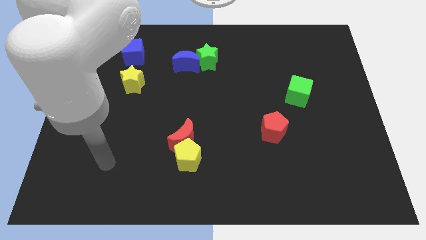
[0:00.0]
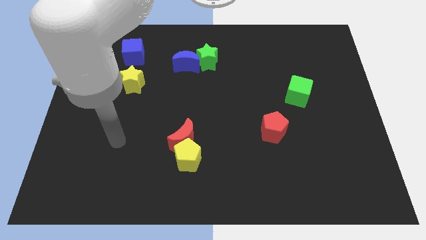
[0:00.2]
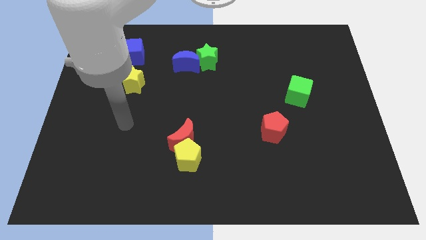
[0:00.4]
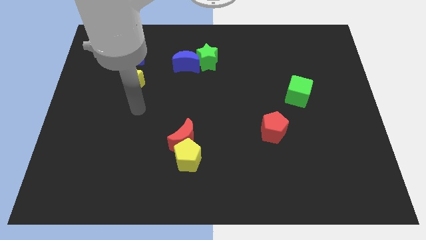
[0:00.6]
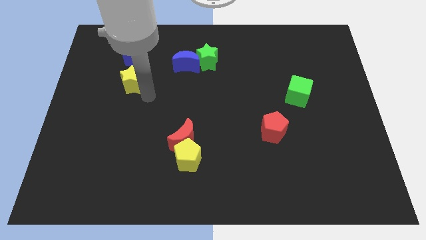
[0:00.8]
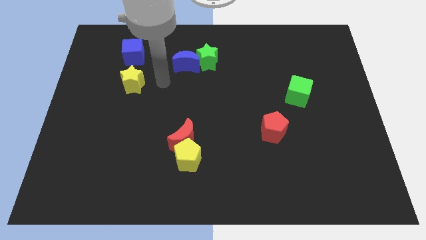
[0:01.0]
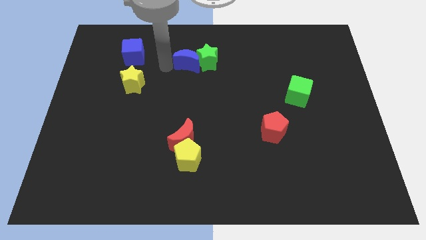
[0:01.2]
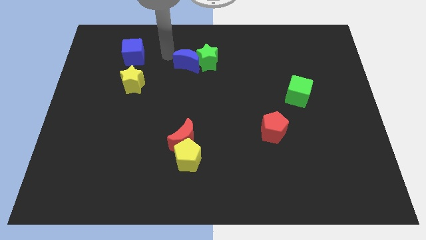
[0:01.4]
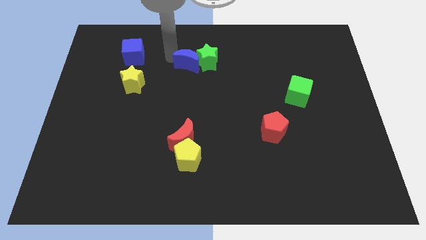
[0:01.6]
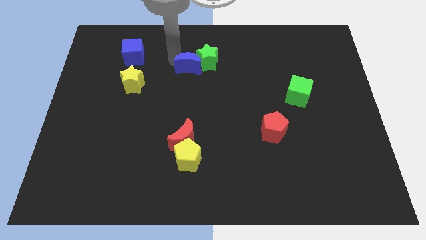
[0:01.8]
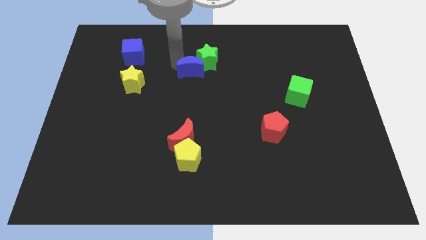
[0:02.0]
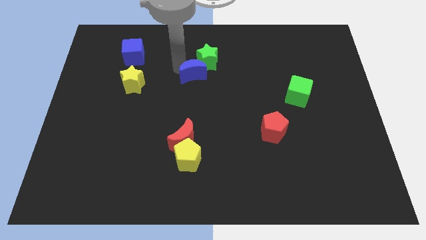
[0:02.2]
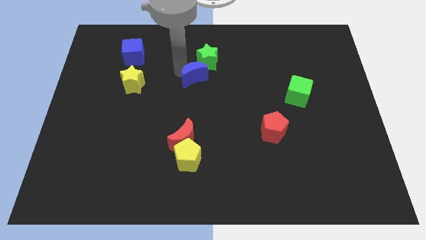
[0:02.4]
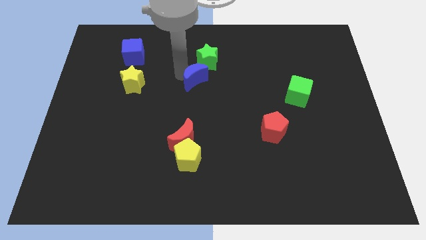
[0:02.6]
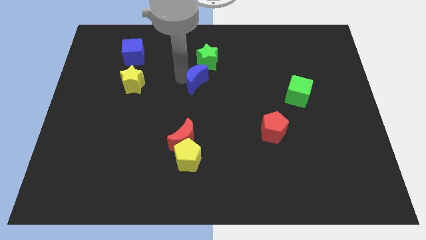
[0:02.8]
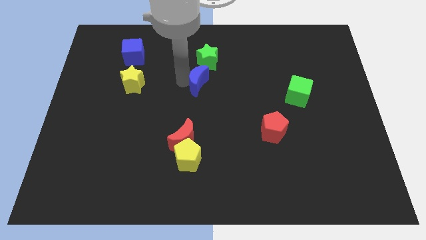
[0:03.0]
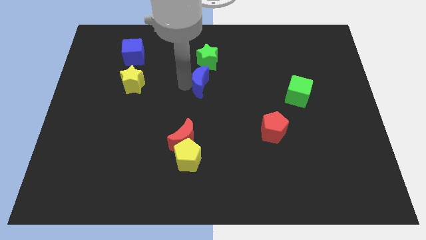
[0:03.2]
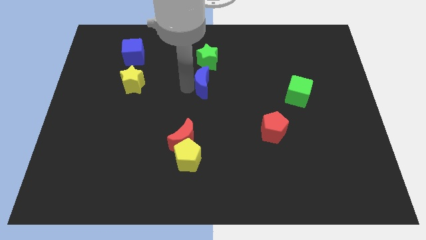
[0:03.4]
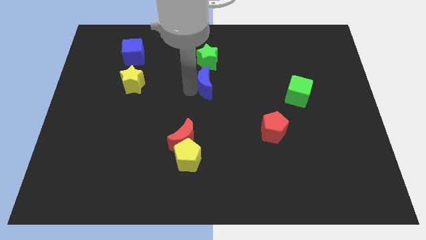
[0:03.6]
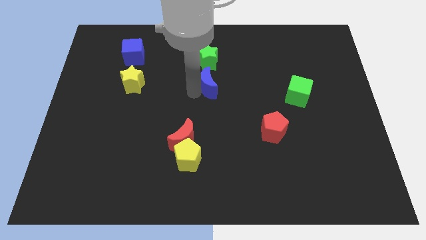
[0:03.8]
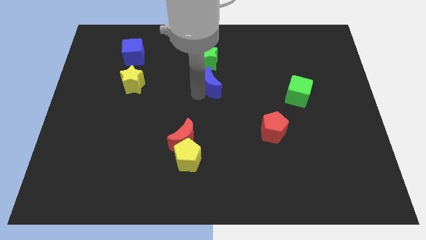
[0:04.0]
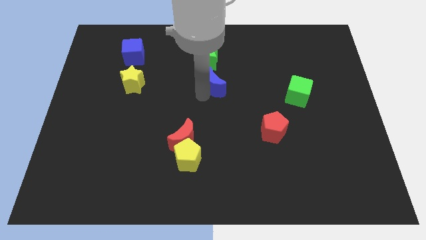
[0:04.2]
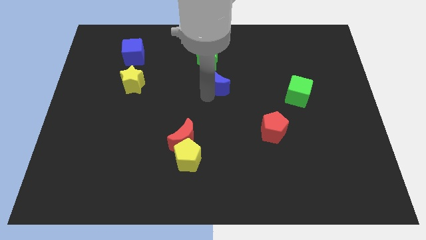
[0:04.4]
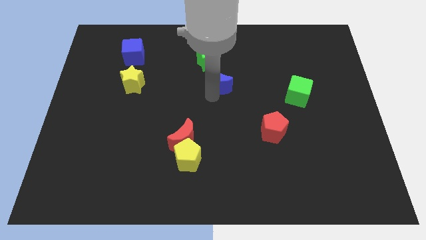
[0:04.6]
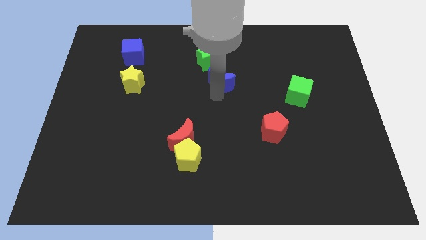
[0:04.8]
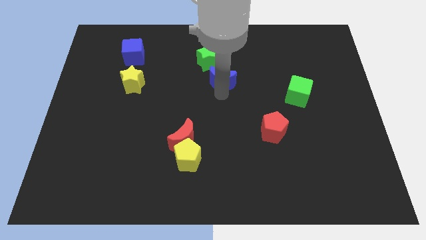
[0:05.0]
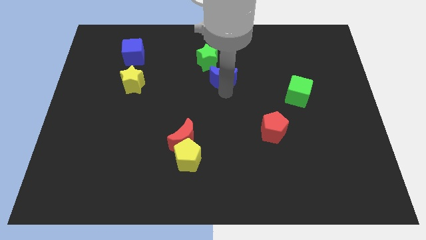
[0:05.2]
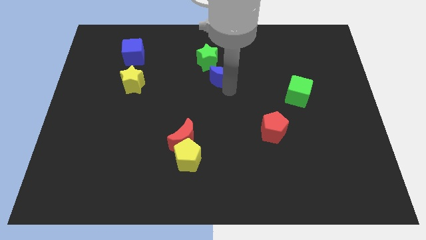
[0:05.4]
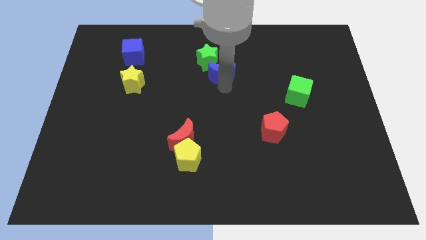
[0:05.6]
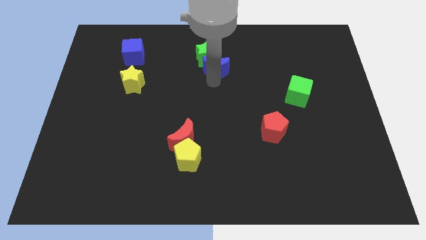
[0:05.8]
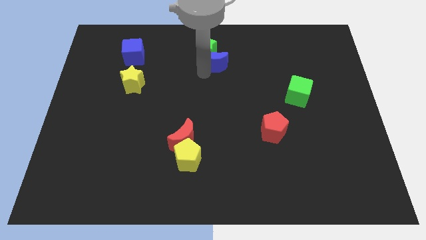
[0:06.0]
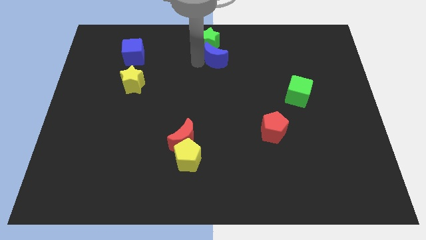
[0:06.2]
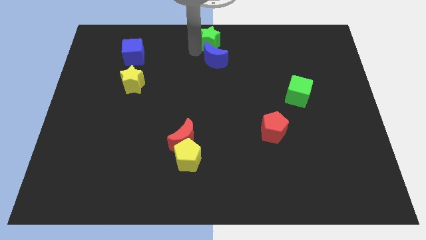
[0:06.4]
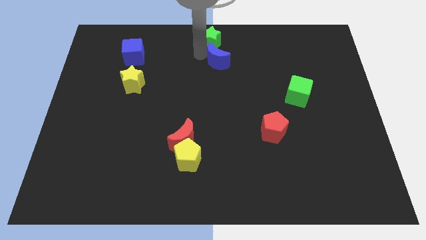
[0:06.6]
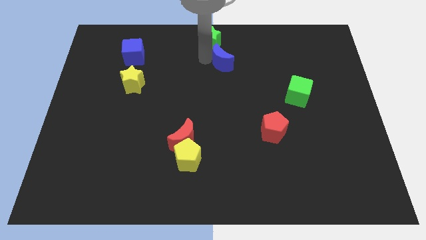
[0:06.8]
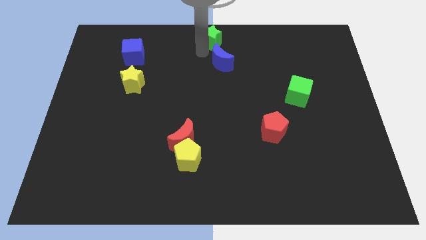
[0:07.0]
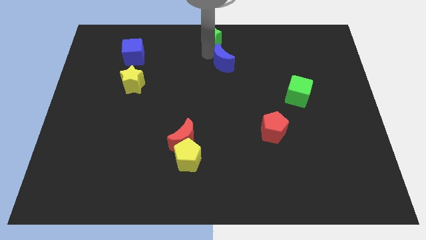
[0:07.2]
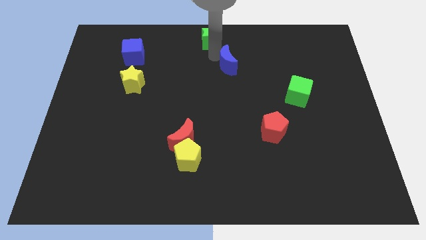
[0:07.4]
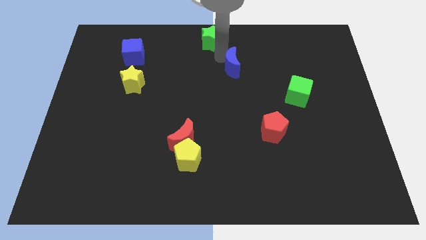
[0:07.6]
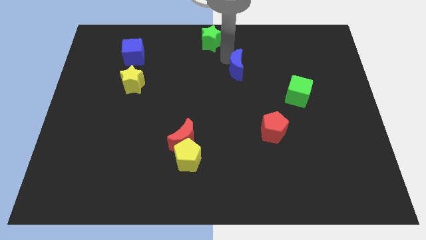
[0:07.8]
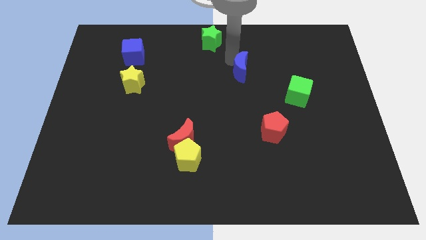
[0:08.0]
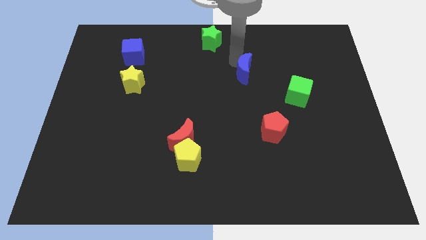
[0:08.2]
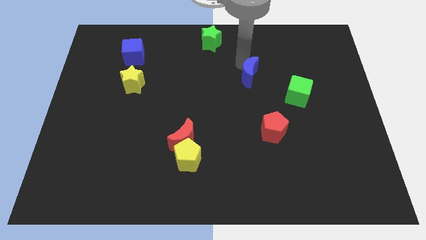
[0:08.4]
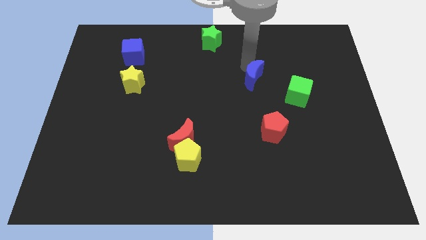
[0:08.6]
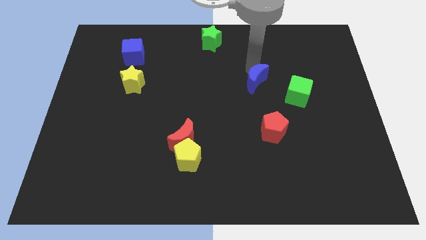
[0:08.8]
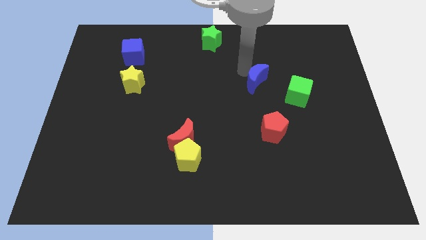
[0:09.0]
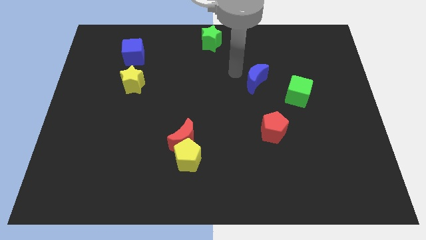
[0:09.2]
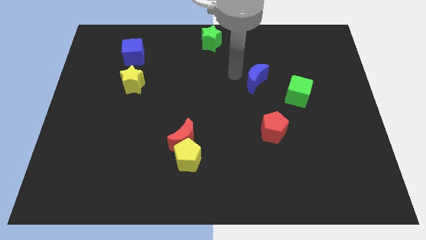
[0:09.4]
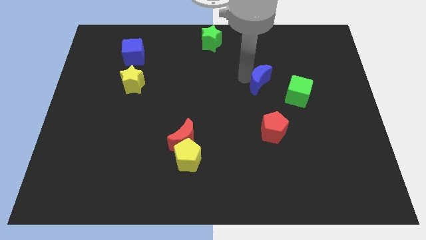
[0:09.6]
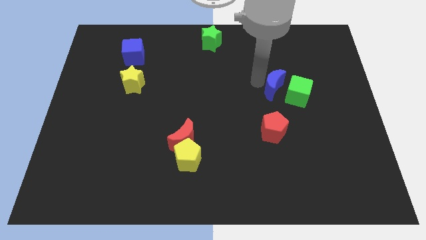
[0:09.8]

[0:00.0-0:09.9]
slide the blue moon to the green cube

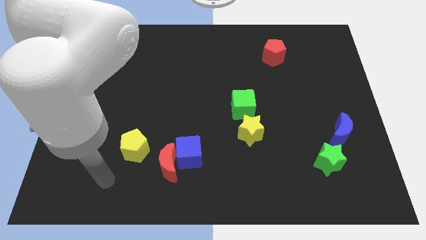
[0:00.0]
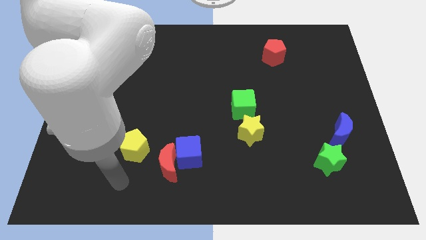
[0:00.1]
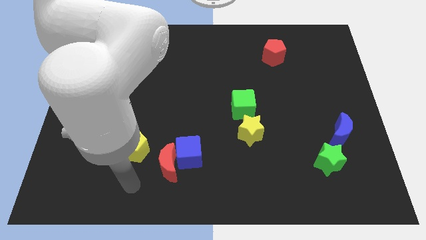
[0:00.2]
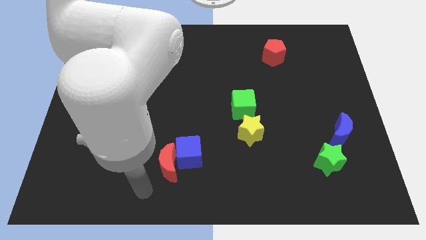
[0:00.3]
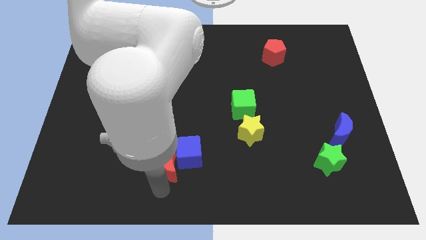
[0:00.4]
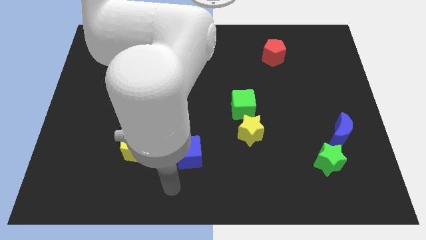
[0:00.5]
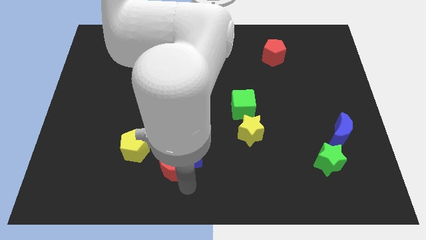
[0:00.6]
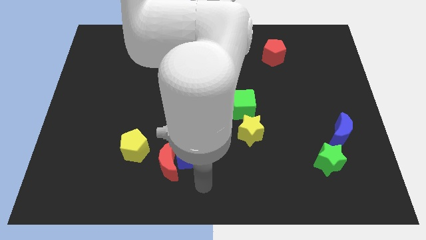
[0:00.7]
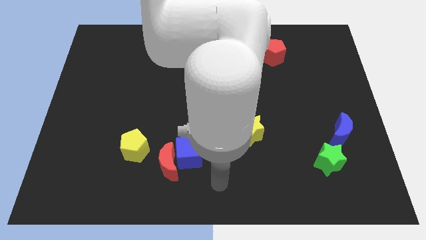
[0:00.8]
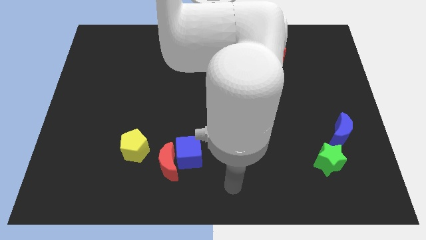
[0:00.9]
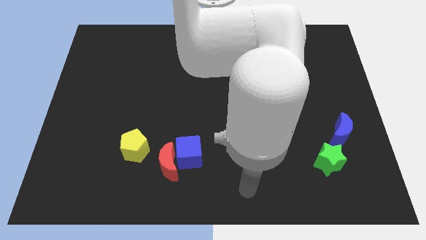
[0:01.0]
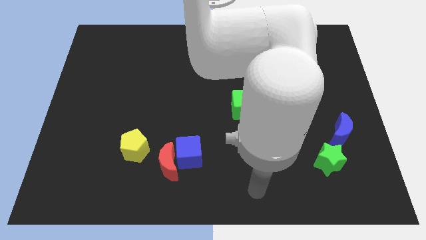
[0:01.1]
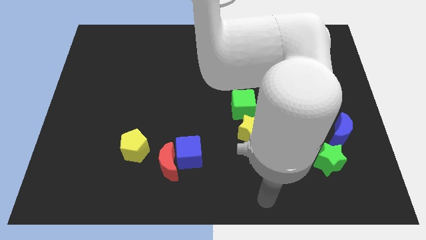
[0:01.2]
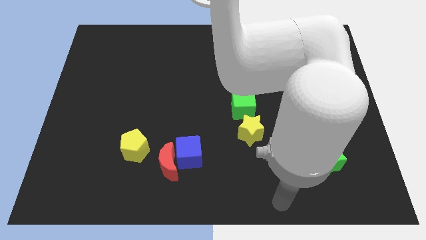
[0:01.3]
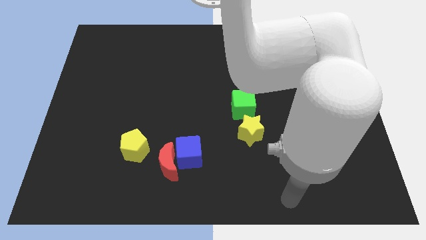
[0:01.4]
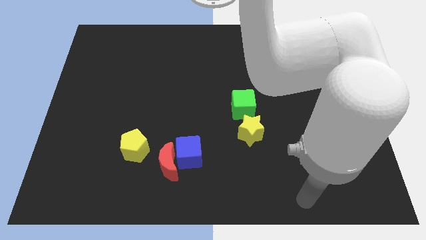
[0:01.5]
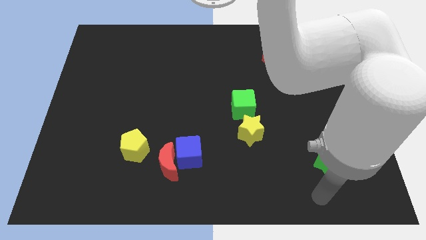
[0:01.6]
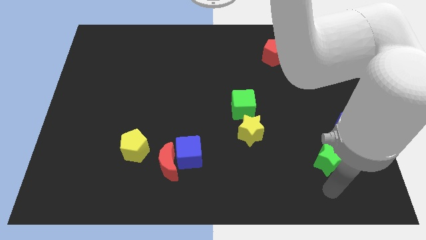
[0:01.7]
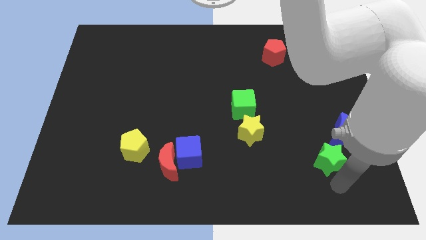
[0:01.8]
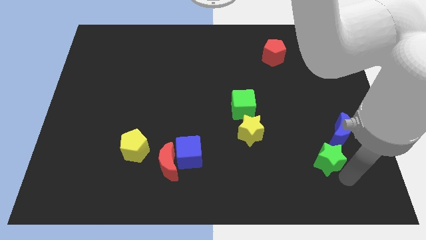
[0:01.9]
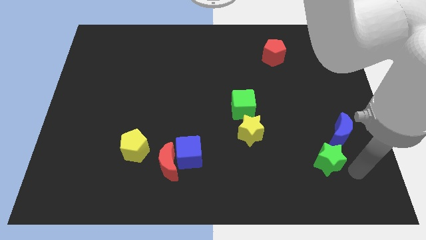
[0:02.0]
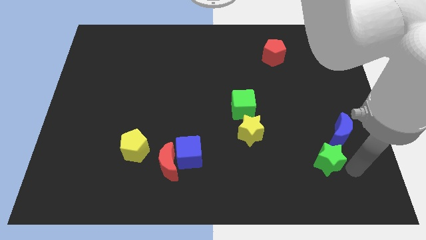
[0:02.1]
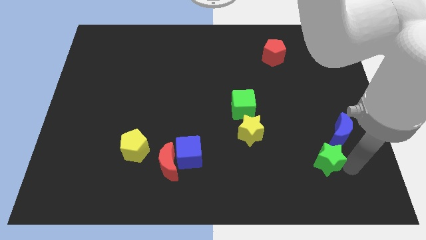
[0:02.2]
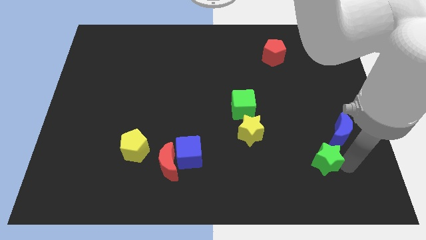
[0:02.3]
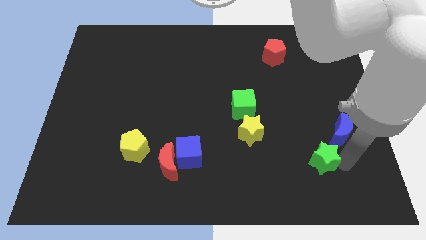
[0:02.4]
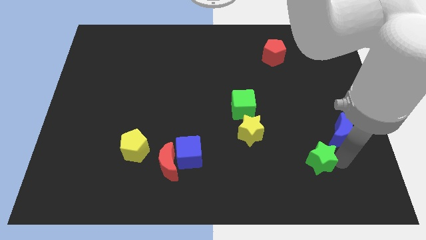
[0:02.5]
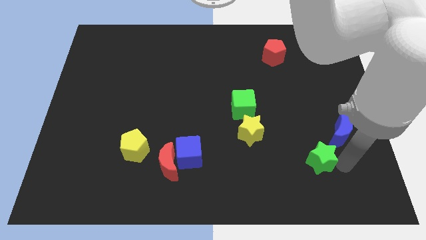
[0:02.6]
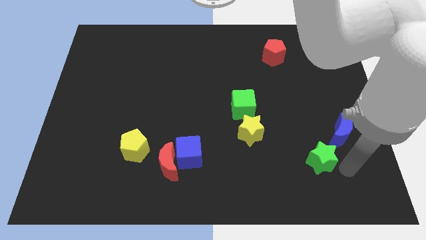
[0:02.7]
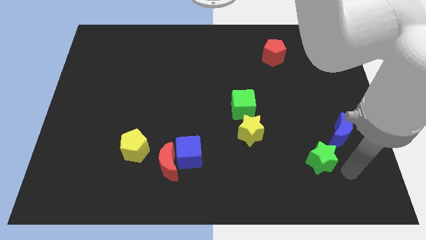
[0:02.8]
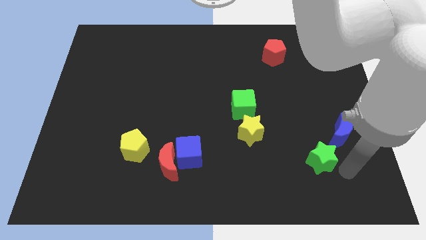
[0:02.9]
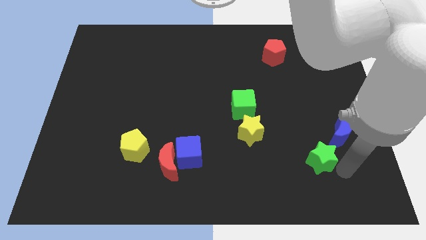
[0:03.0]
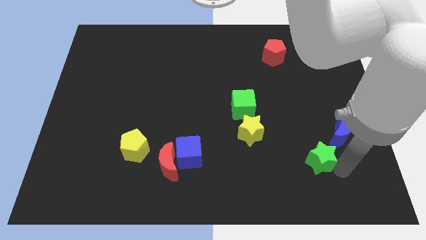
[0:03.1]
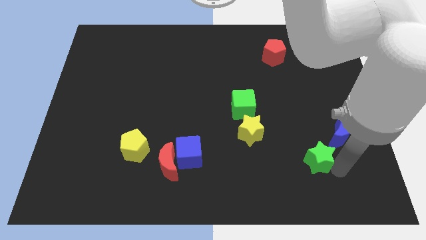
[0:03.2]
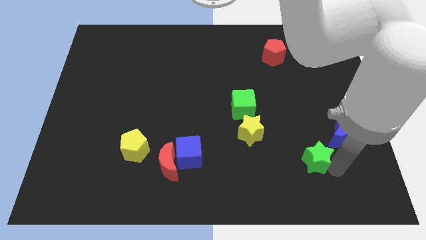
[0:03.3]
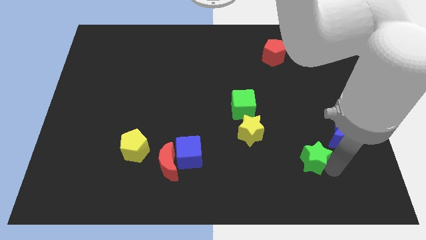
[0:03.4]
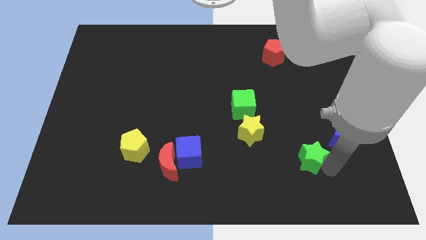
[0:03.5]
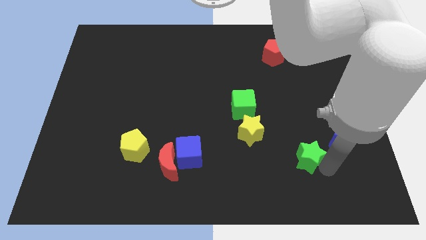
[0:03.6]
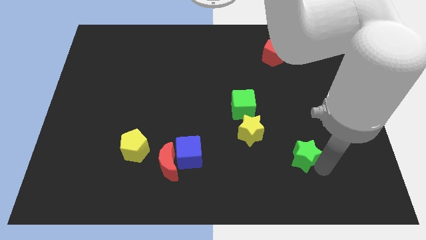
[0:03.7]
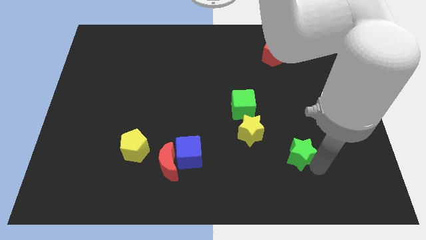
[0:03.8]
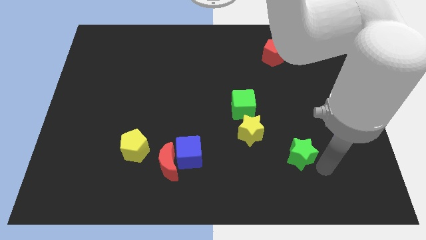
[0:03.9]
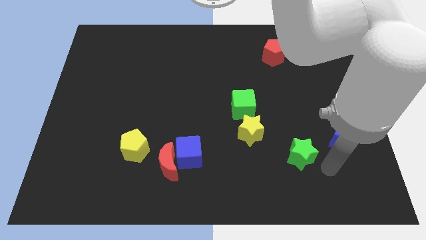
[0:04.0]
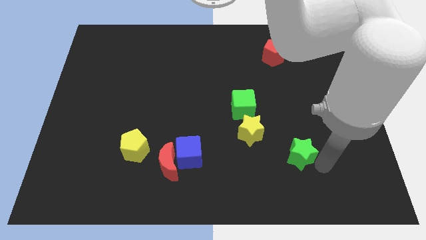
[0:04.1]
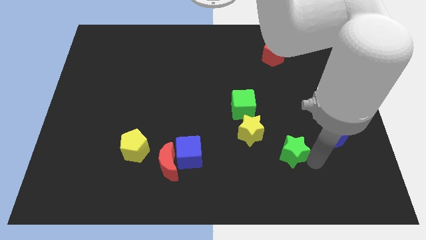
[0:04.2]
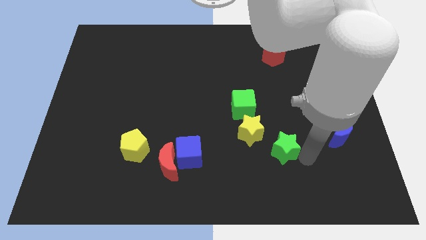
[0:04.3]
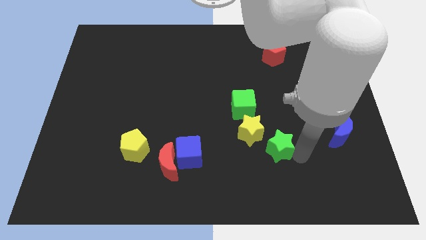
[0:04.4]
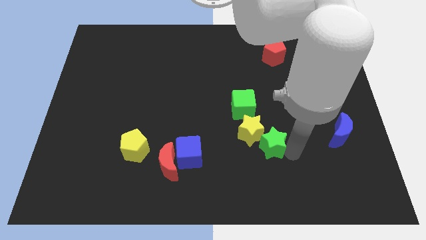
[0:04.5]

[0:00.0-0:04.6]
put the green star to the yellow star
